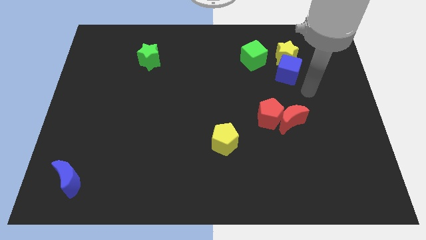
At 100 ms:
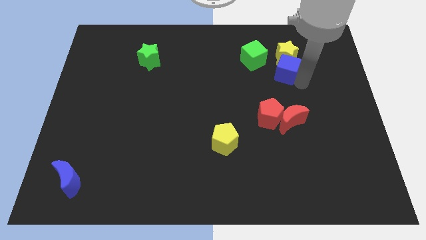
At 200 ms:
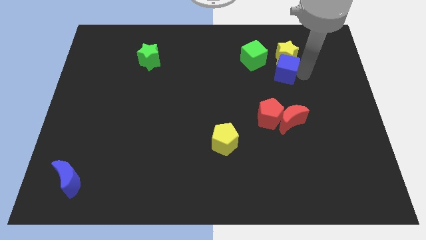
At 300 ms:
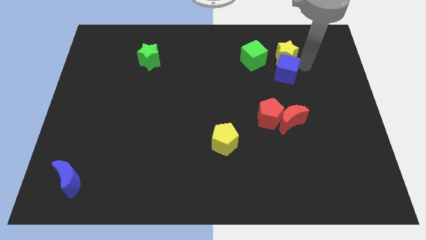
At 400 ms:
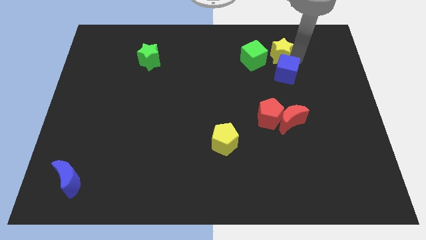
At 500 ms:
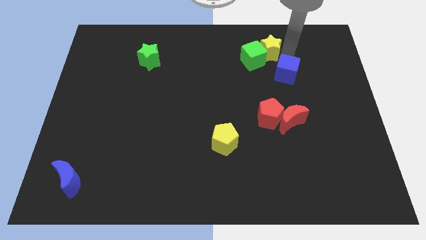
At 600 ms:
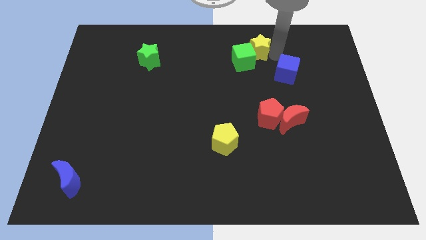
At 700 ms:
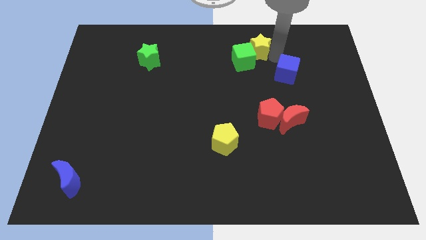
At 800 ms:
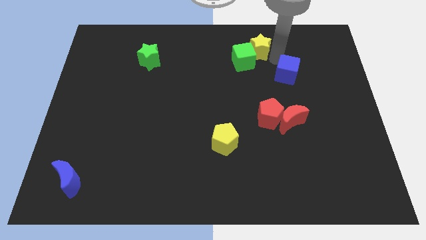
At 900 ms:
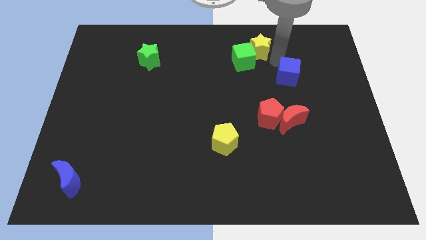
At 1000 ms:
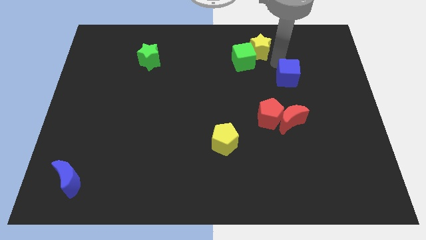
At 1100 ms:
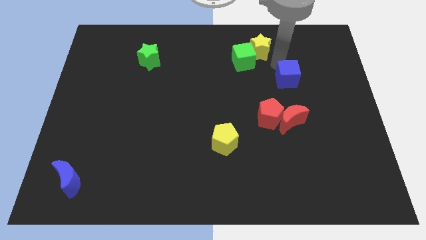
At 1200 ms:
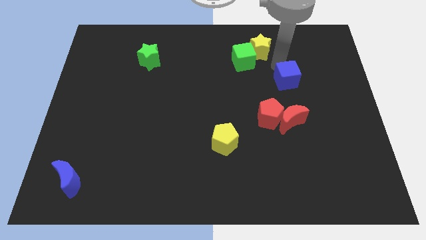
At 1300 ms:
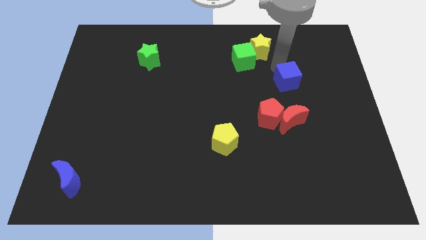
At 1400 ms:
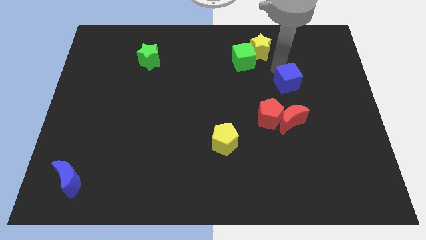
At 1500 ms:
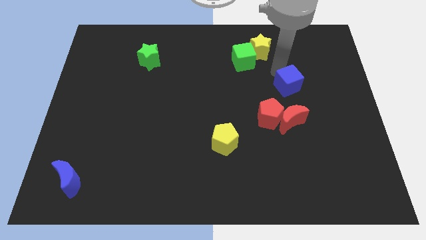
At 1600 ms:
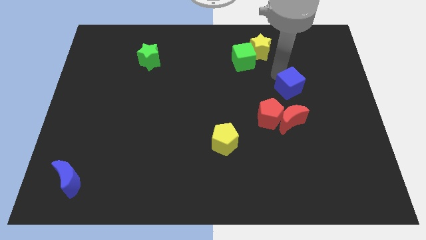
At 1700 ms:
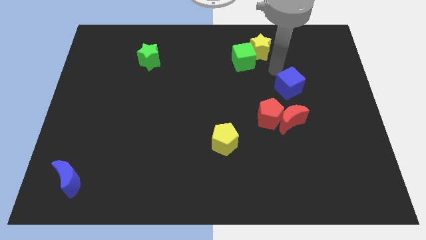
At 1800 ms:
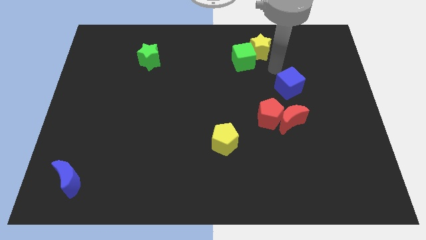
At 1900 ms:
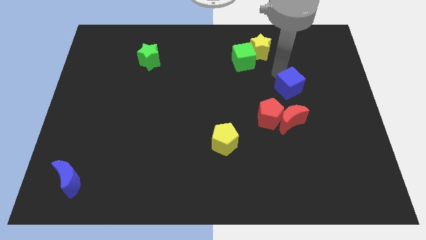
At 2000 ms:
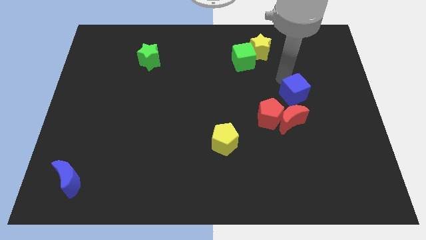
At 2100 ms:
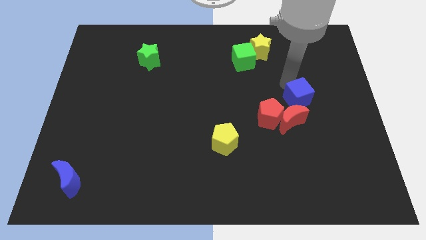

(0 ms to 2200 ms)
move the blue cube a little bit down

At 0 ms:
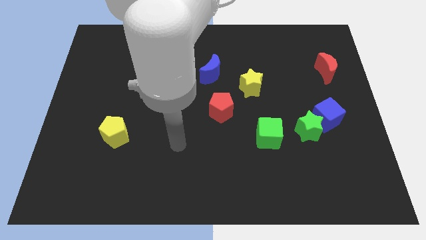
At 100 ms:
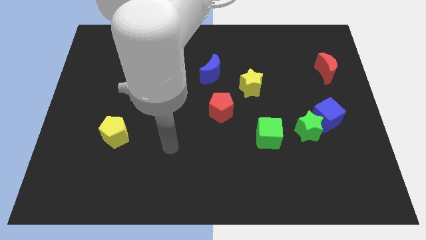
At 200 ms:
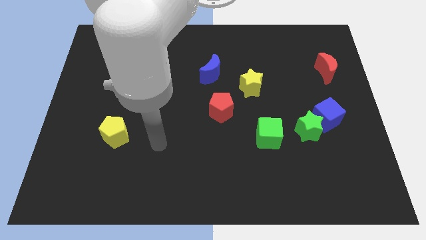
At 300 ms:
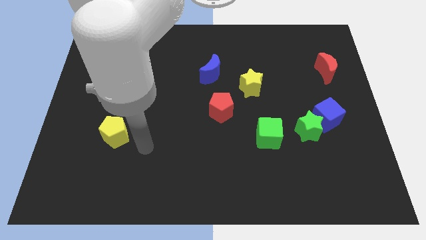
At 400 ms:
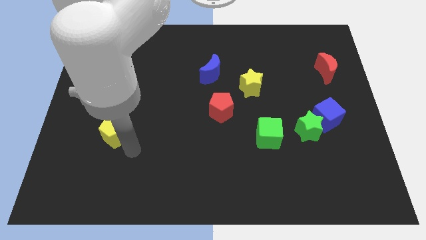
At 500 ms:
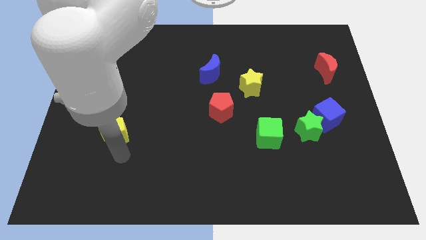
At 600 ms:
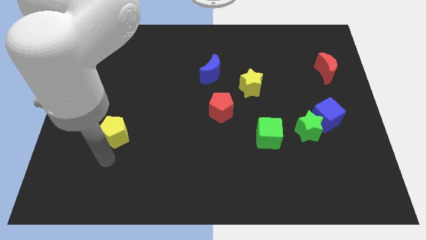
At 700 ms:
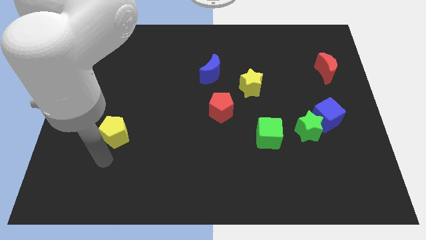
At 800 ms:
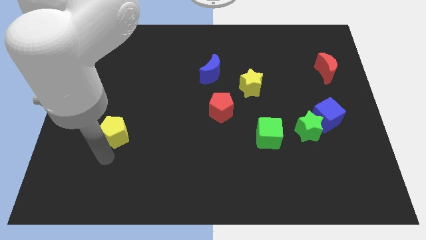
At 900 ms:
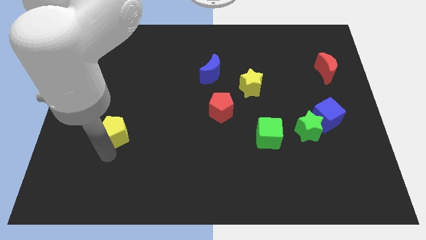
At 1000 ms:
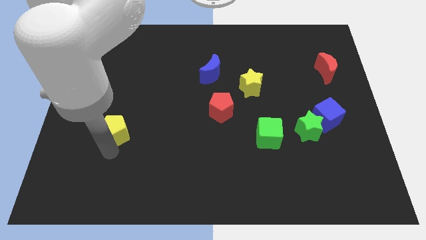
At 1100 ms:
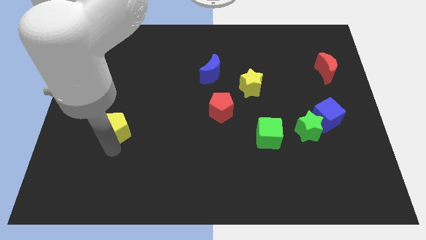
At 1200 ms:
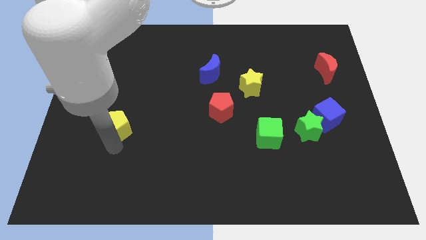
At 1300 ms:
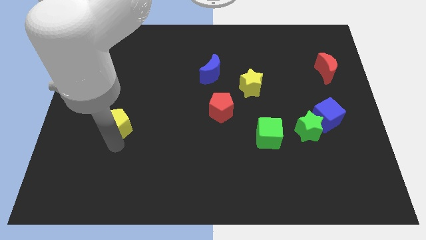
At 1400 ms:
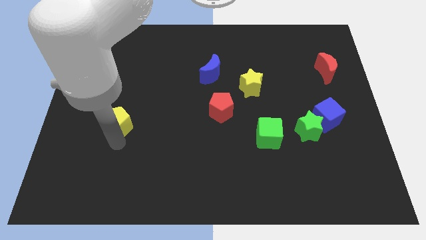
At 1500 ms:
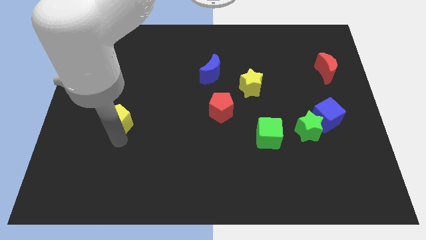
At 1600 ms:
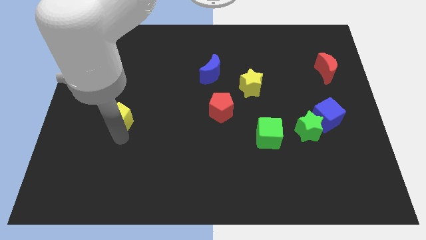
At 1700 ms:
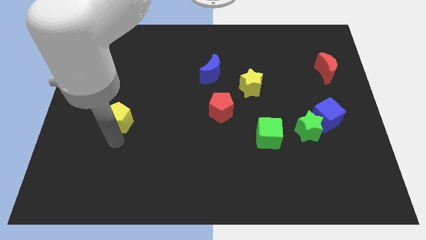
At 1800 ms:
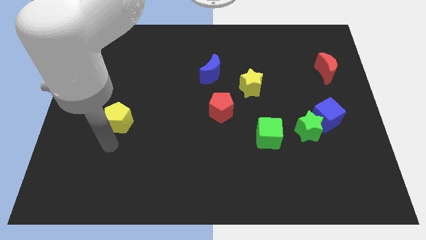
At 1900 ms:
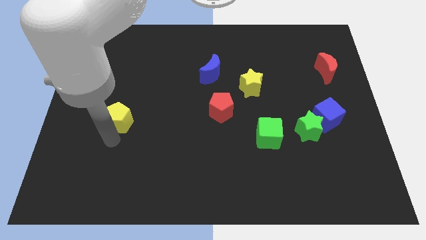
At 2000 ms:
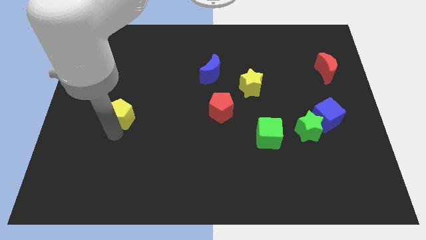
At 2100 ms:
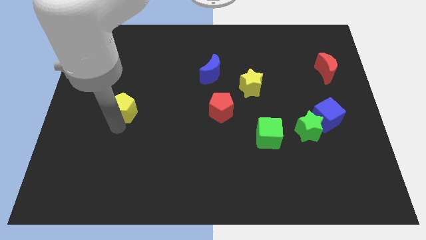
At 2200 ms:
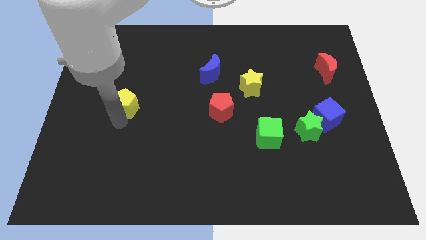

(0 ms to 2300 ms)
move the yellow pentagon upwards somewhat

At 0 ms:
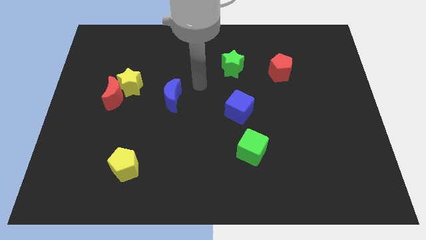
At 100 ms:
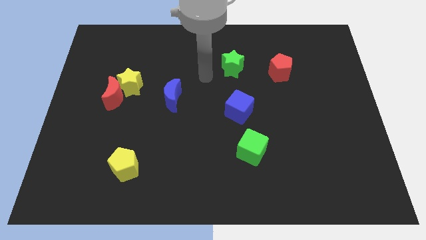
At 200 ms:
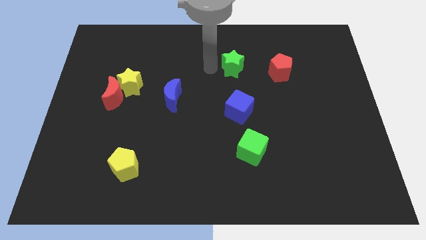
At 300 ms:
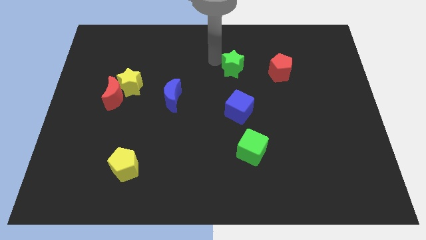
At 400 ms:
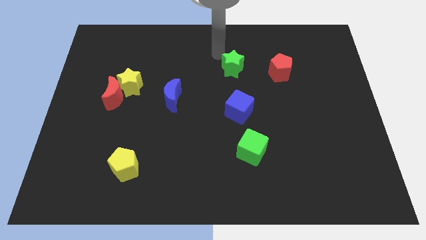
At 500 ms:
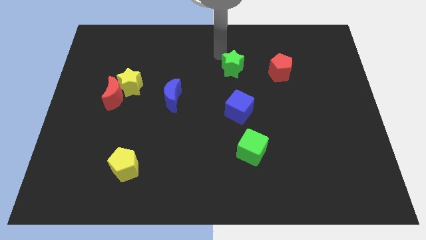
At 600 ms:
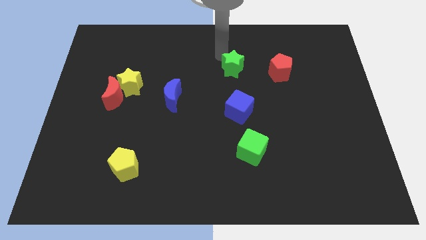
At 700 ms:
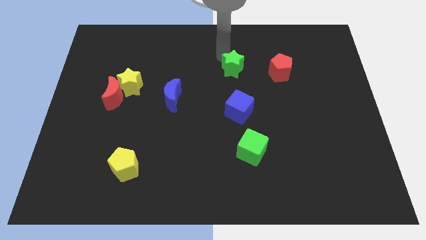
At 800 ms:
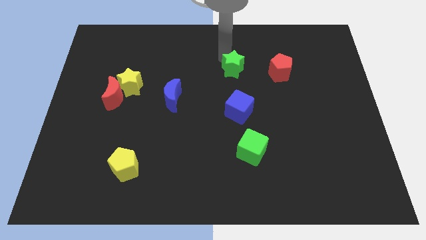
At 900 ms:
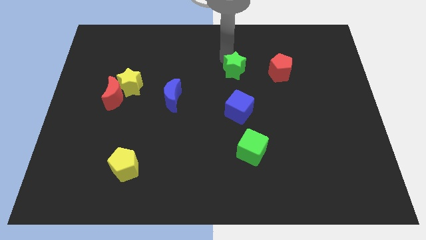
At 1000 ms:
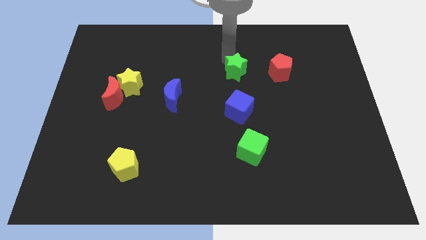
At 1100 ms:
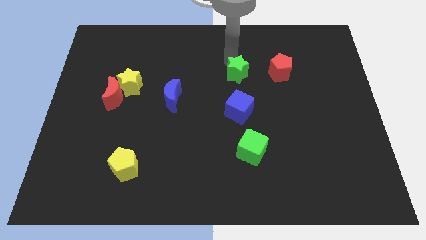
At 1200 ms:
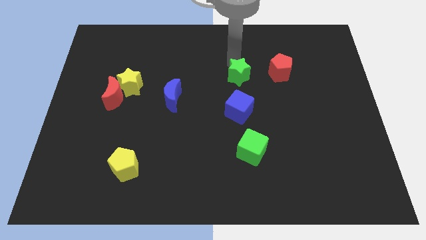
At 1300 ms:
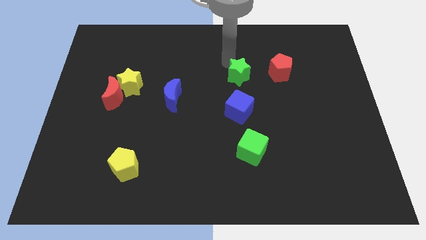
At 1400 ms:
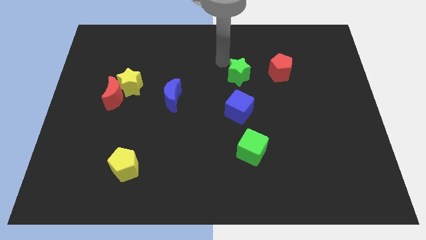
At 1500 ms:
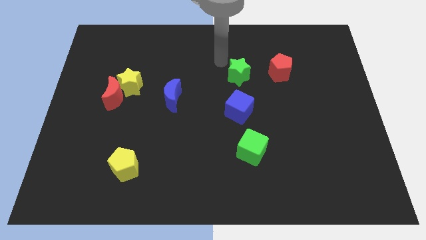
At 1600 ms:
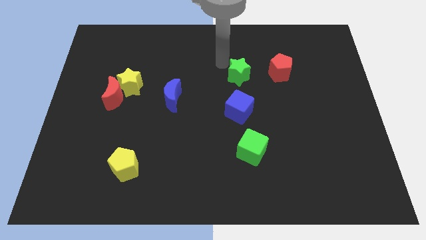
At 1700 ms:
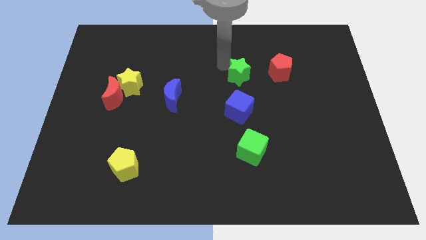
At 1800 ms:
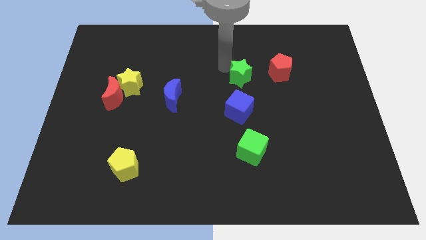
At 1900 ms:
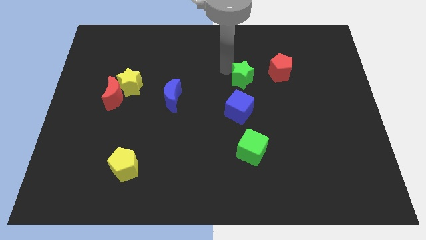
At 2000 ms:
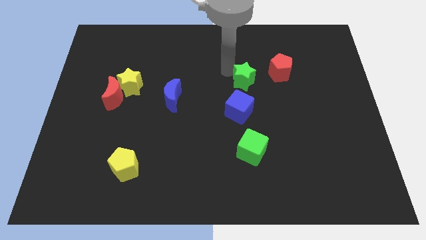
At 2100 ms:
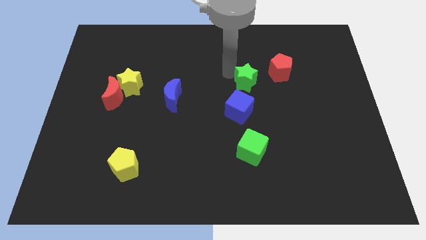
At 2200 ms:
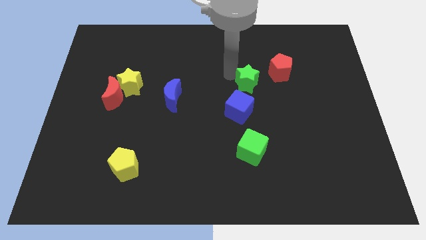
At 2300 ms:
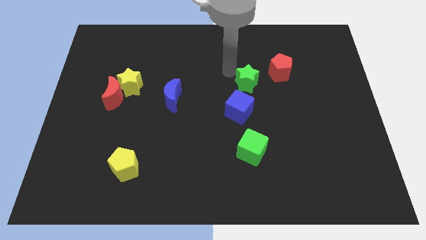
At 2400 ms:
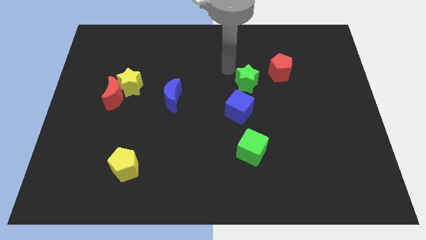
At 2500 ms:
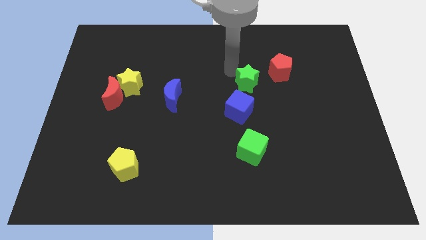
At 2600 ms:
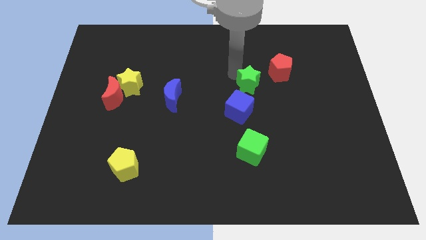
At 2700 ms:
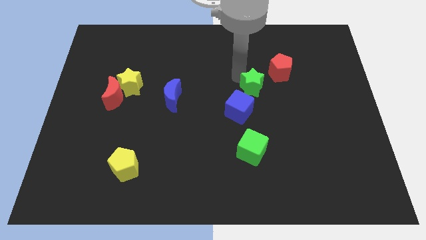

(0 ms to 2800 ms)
slightly push the green star down and to the right diagonally

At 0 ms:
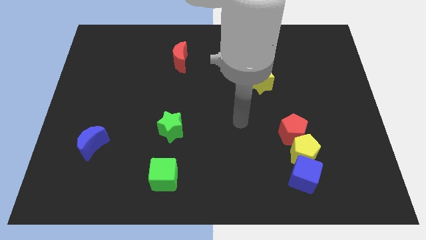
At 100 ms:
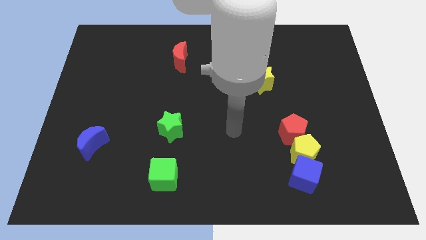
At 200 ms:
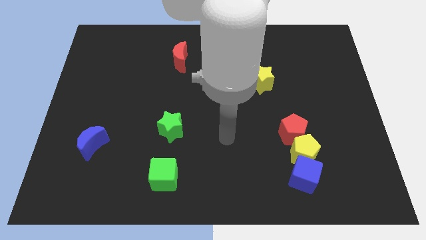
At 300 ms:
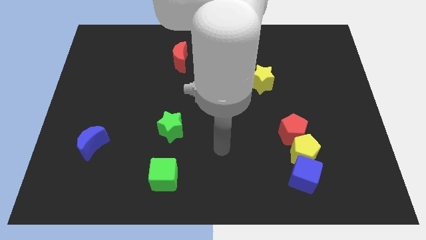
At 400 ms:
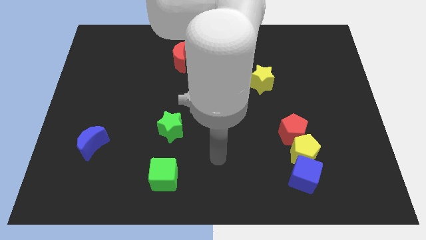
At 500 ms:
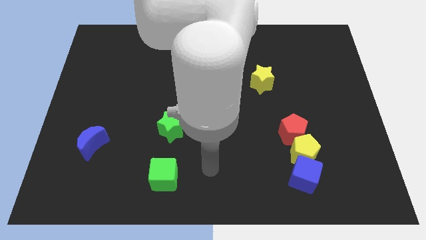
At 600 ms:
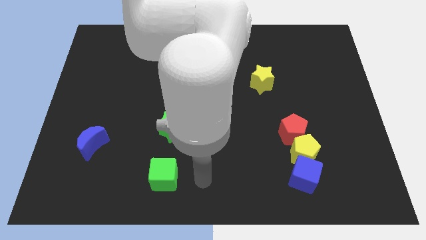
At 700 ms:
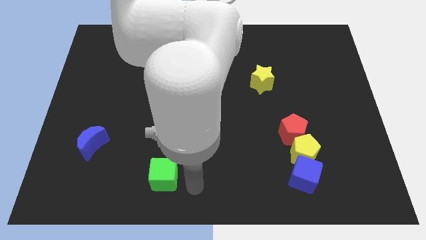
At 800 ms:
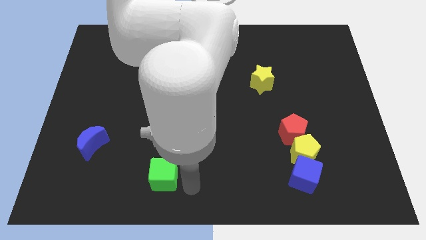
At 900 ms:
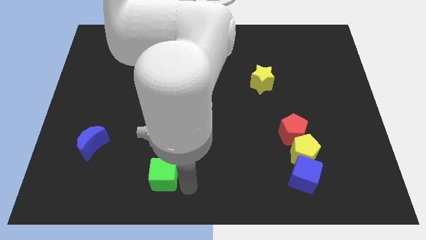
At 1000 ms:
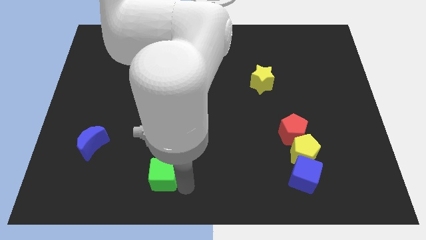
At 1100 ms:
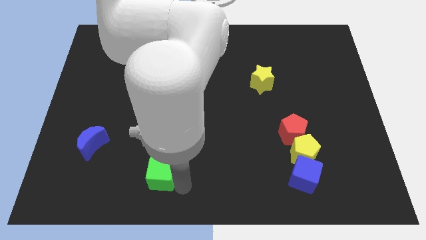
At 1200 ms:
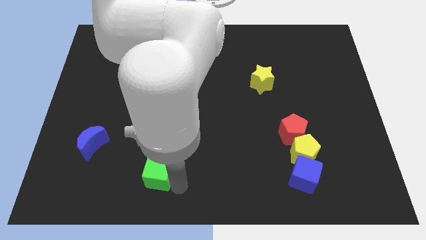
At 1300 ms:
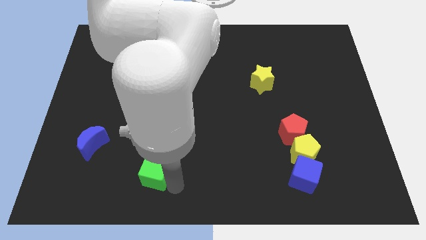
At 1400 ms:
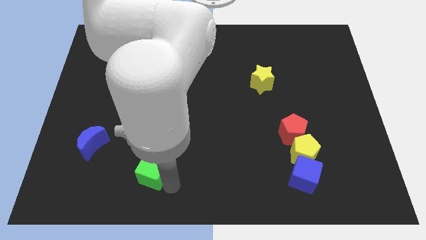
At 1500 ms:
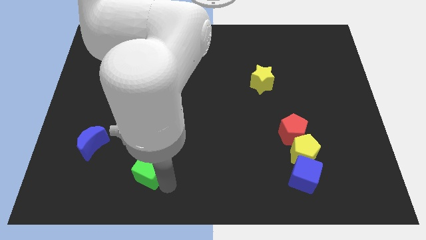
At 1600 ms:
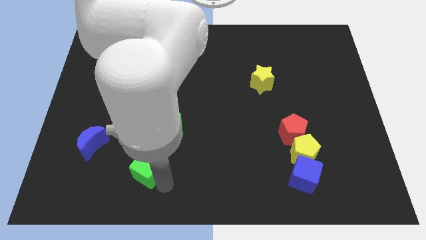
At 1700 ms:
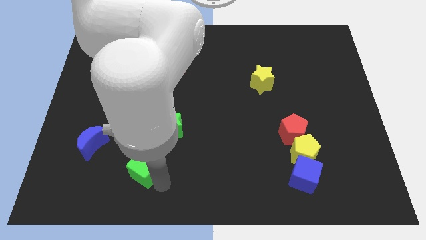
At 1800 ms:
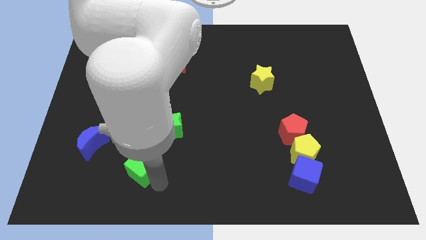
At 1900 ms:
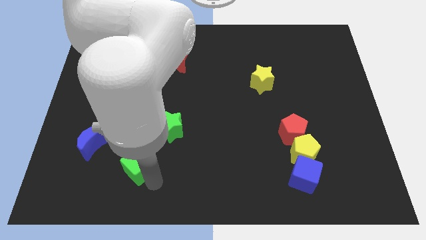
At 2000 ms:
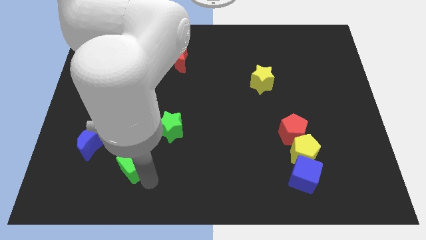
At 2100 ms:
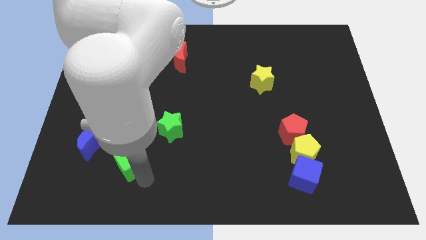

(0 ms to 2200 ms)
push the green cube a little up and left
